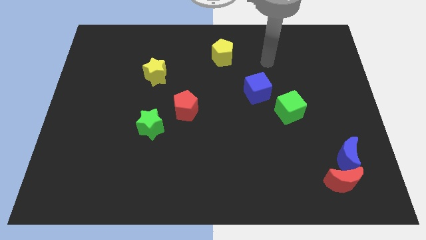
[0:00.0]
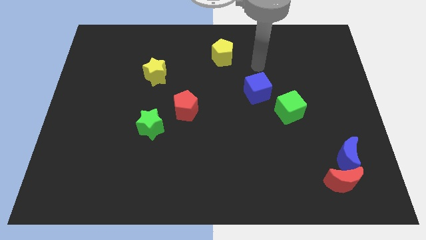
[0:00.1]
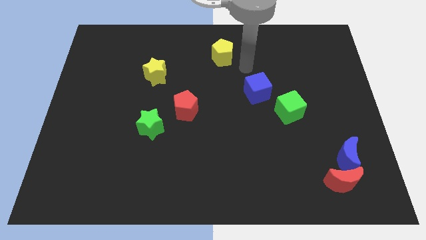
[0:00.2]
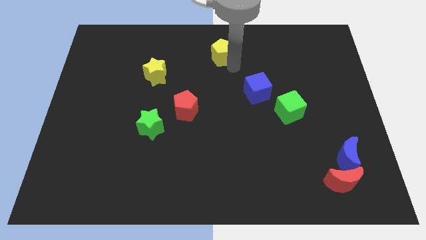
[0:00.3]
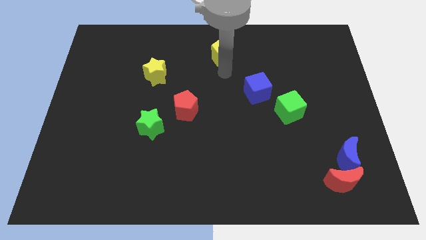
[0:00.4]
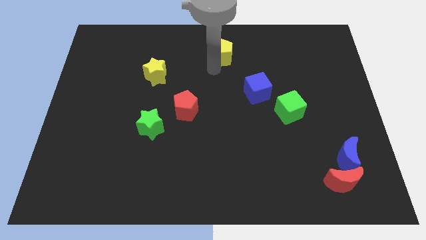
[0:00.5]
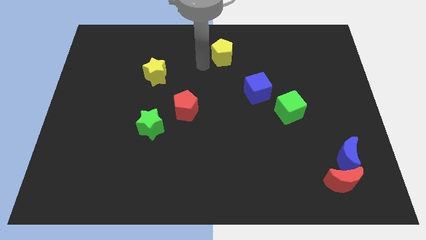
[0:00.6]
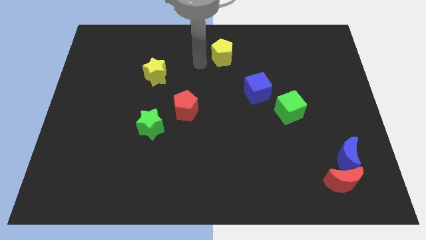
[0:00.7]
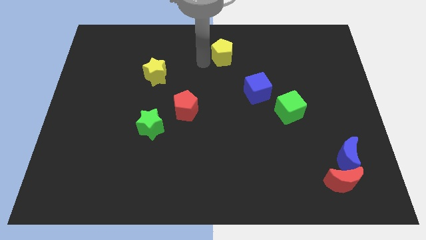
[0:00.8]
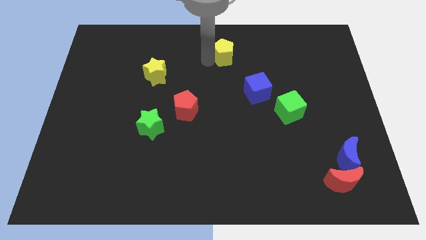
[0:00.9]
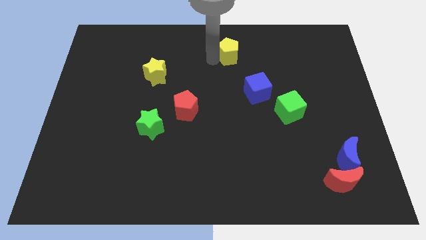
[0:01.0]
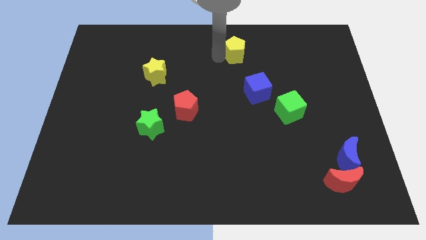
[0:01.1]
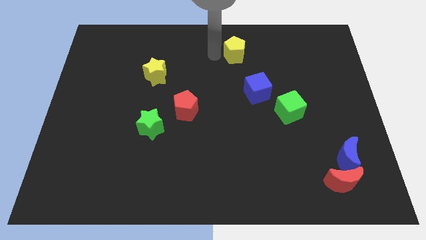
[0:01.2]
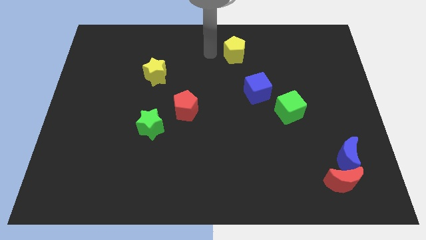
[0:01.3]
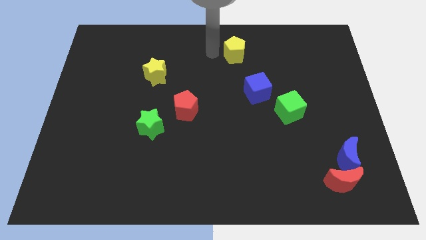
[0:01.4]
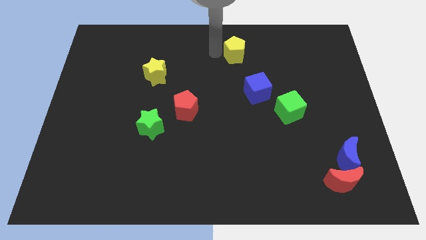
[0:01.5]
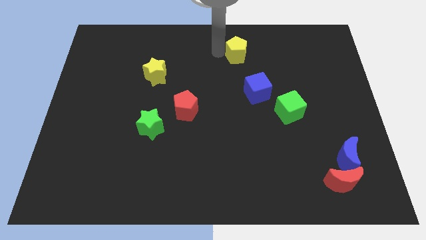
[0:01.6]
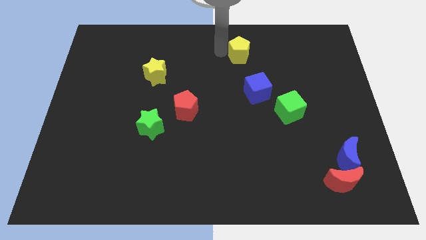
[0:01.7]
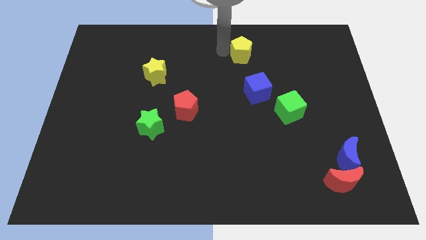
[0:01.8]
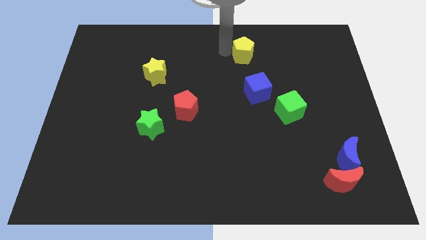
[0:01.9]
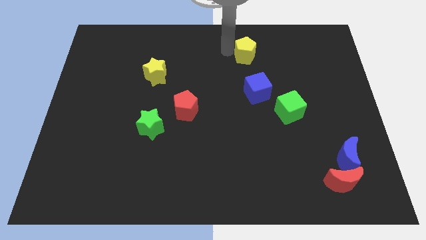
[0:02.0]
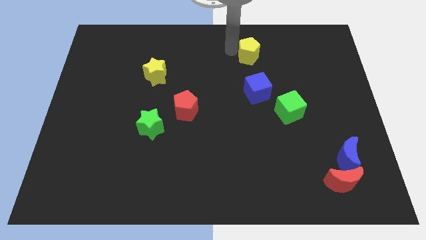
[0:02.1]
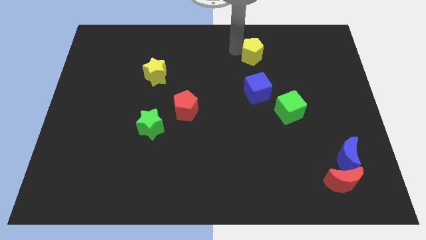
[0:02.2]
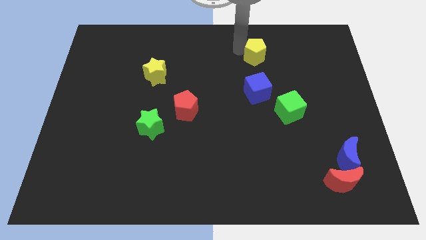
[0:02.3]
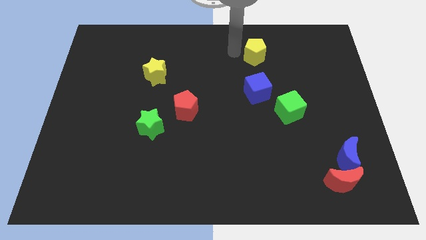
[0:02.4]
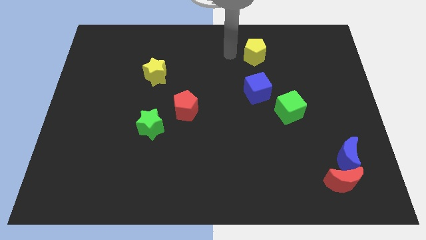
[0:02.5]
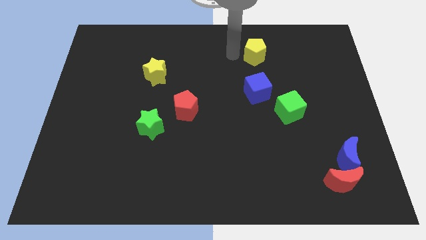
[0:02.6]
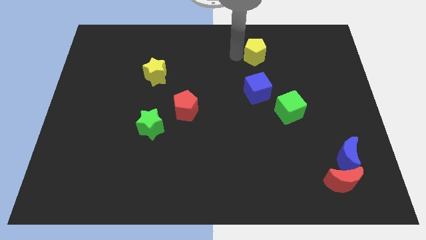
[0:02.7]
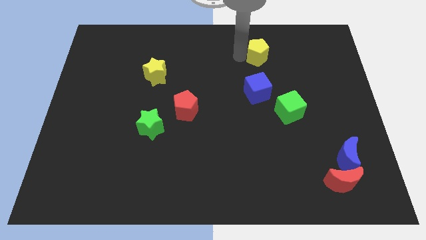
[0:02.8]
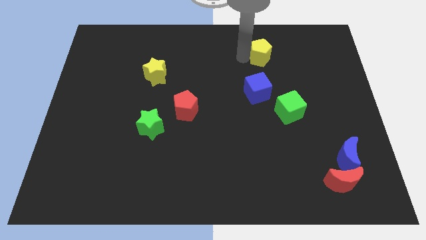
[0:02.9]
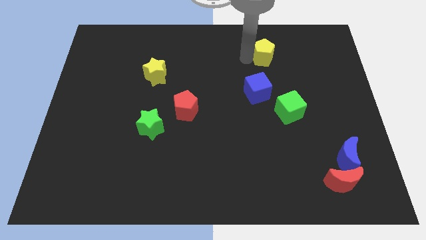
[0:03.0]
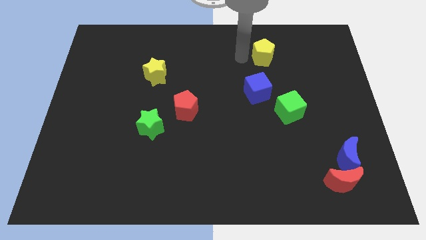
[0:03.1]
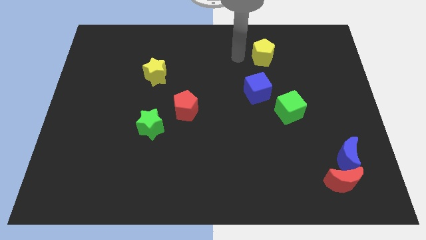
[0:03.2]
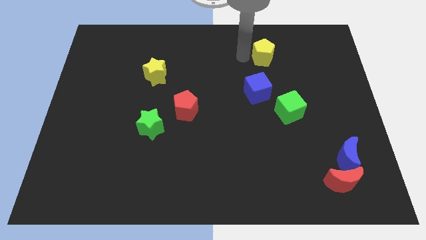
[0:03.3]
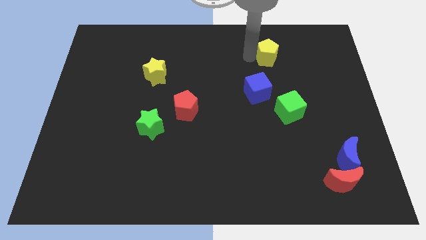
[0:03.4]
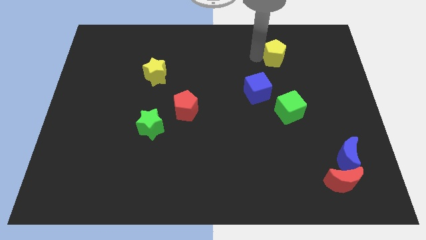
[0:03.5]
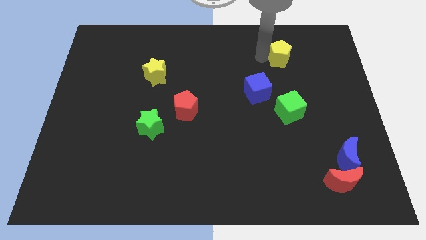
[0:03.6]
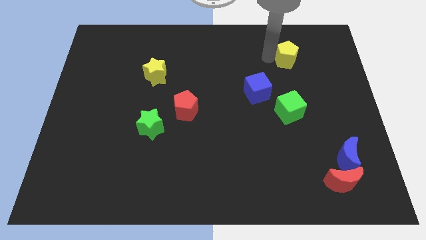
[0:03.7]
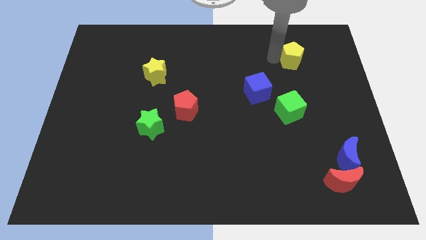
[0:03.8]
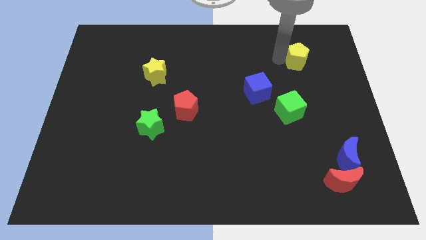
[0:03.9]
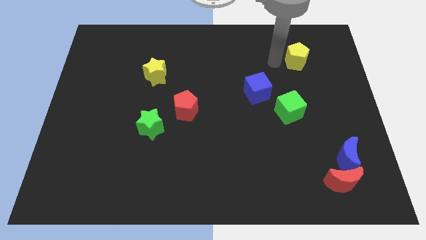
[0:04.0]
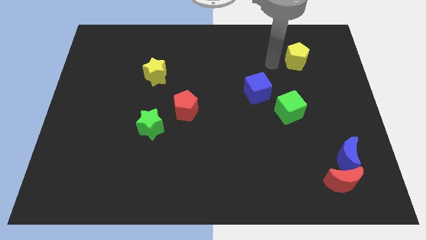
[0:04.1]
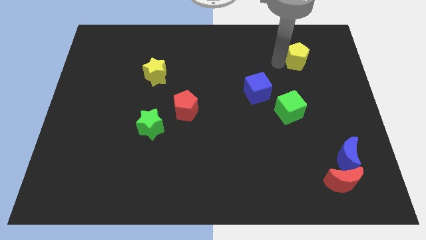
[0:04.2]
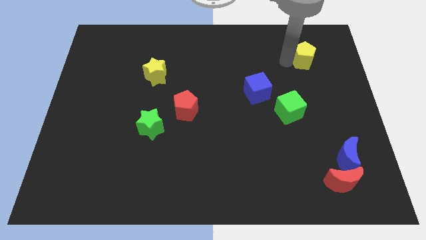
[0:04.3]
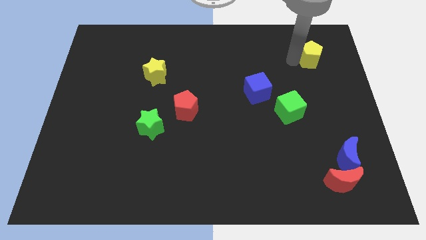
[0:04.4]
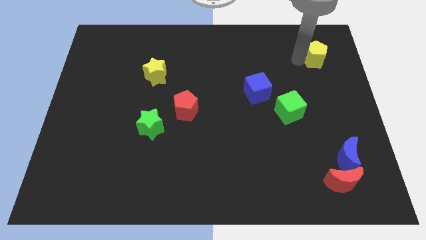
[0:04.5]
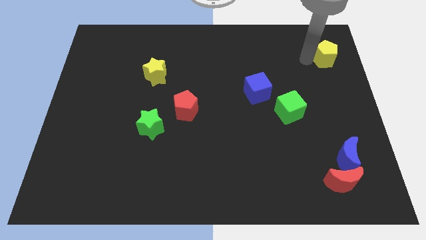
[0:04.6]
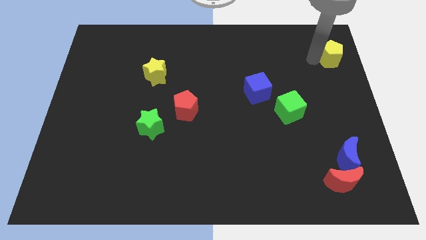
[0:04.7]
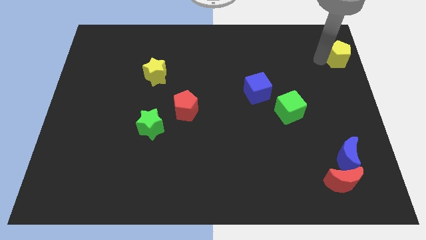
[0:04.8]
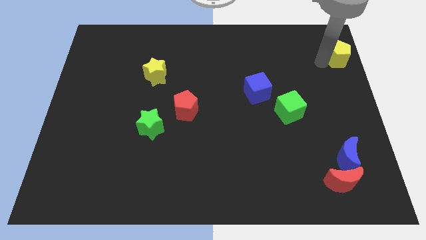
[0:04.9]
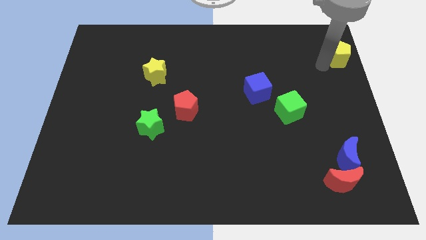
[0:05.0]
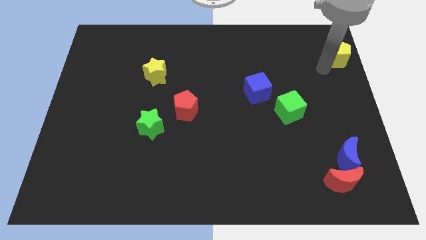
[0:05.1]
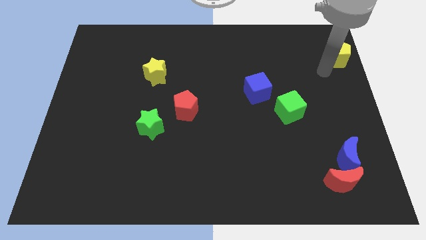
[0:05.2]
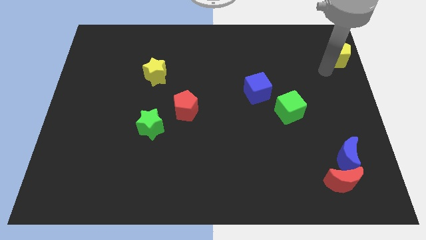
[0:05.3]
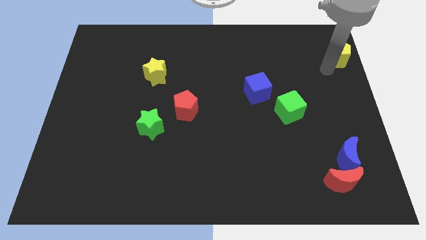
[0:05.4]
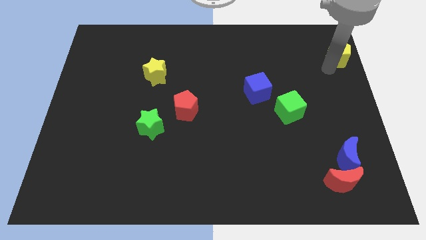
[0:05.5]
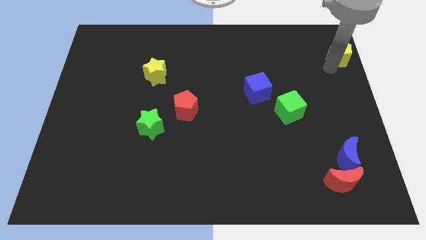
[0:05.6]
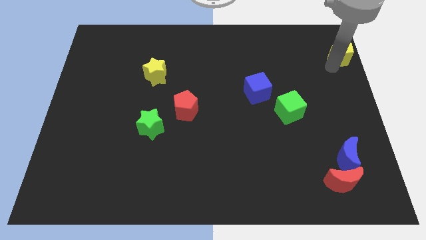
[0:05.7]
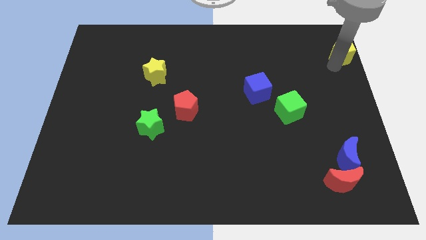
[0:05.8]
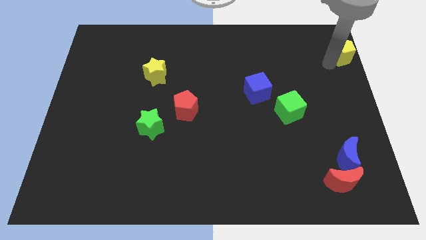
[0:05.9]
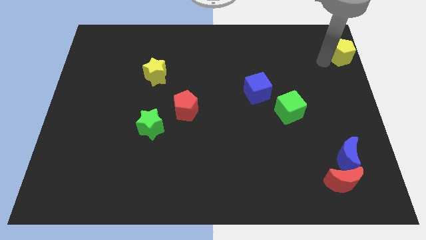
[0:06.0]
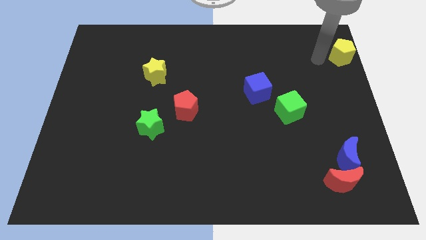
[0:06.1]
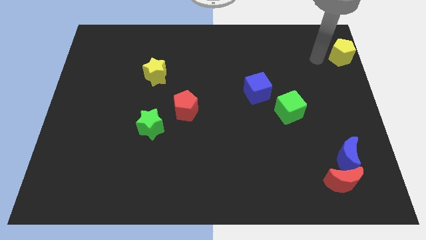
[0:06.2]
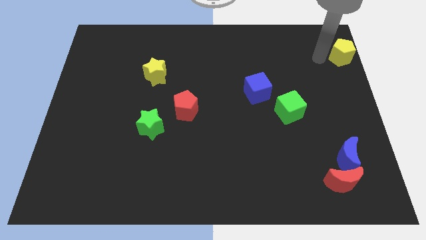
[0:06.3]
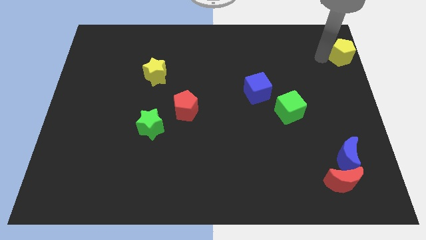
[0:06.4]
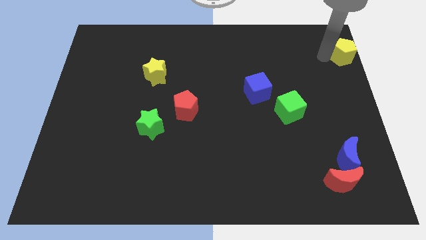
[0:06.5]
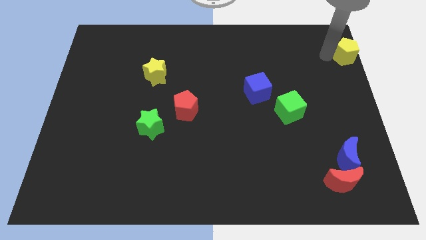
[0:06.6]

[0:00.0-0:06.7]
put the yellow pentagon to the top right corner
